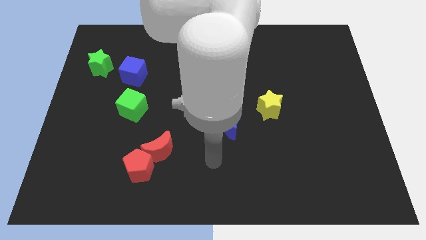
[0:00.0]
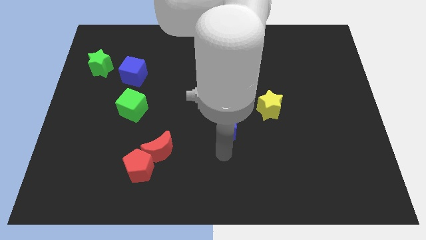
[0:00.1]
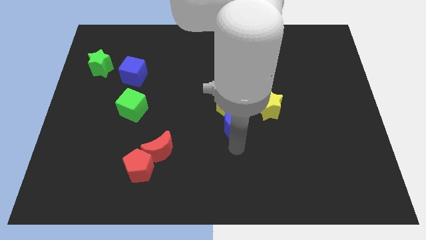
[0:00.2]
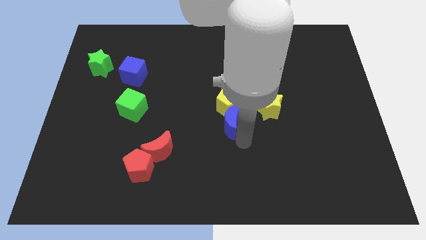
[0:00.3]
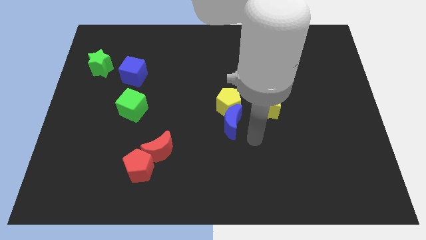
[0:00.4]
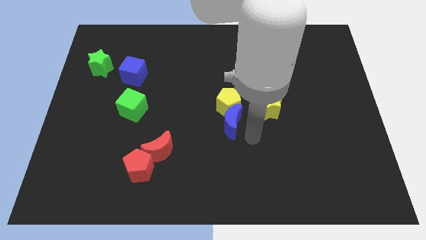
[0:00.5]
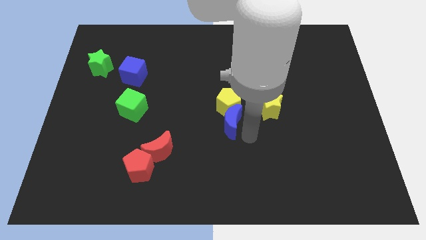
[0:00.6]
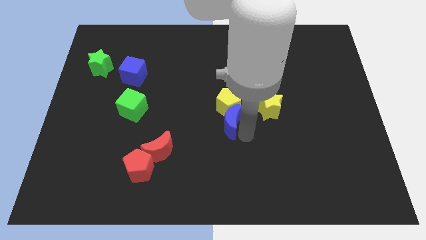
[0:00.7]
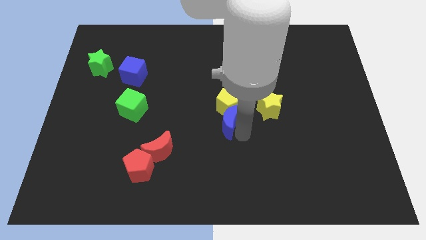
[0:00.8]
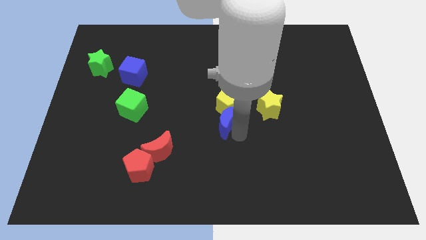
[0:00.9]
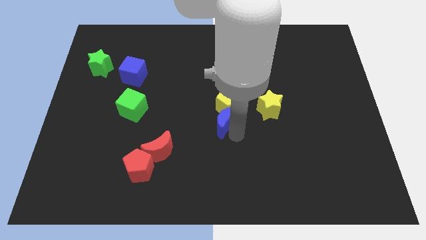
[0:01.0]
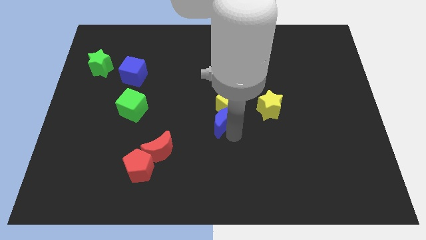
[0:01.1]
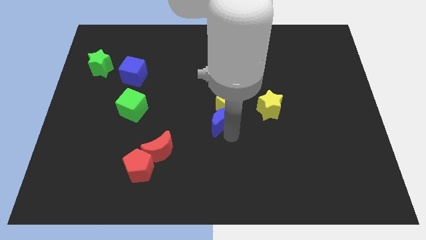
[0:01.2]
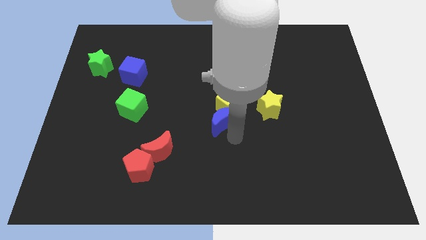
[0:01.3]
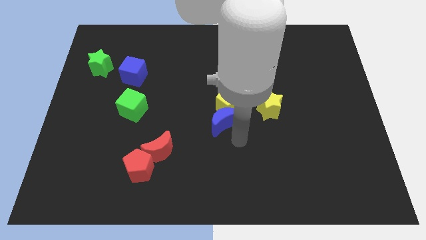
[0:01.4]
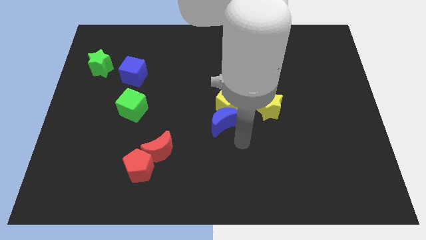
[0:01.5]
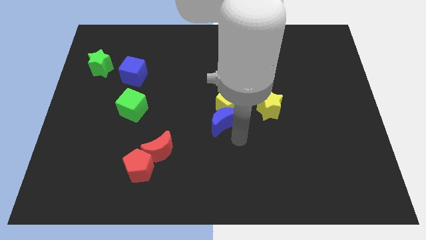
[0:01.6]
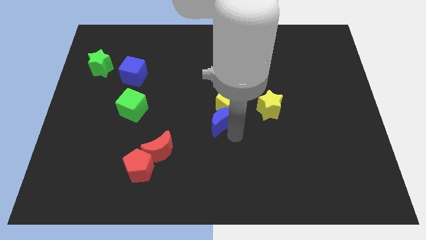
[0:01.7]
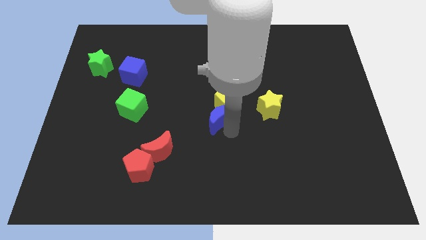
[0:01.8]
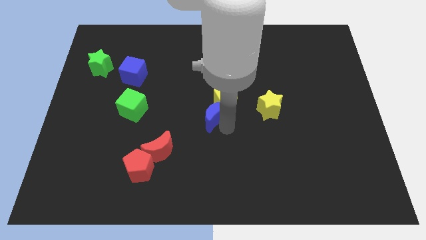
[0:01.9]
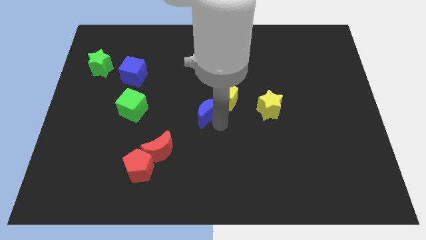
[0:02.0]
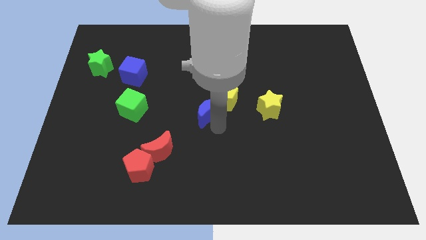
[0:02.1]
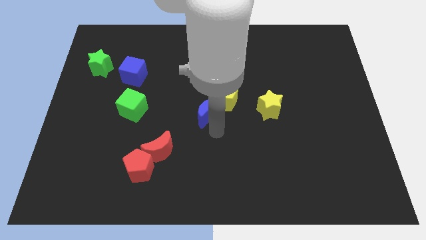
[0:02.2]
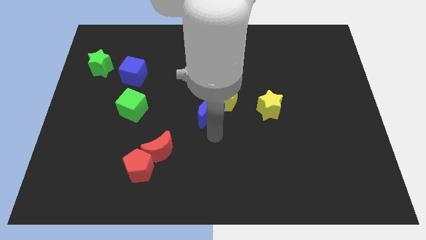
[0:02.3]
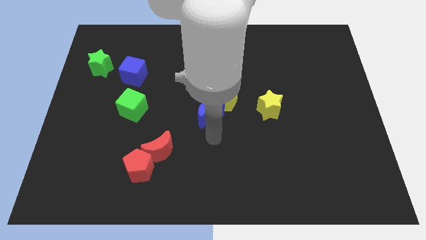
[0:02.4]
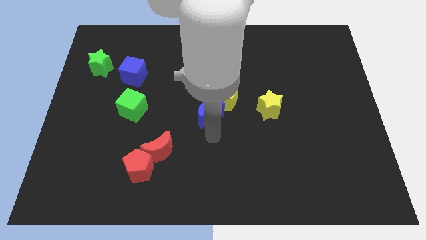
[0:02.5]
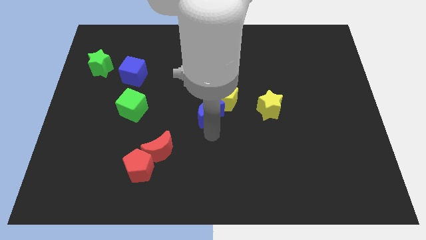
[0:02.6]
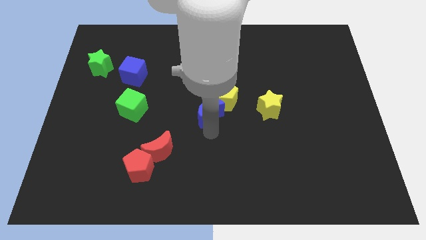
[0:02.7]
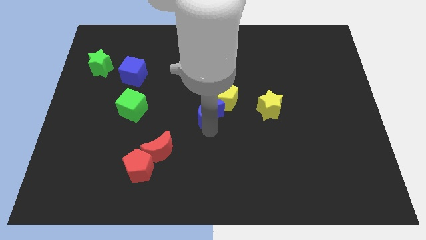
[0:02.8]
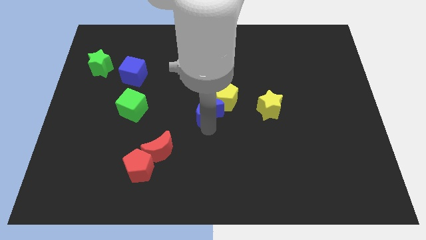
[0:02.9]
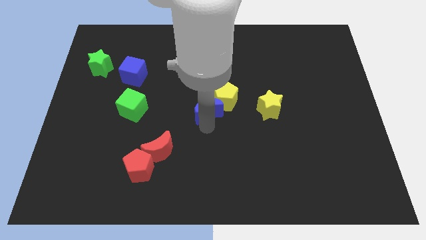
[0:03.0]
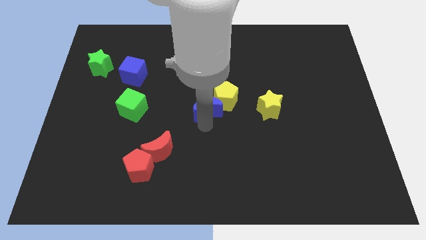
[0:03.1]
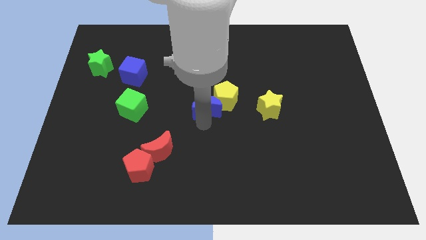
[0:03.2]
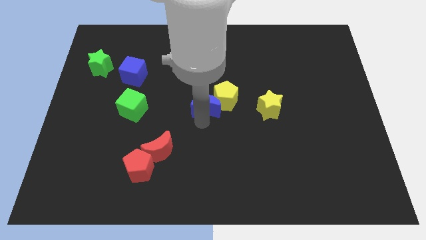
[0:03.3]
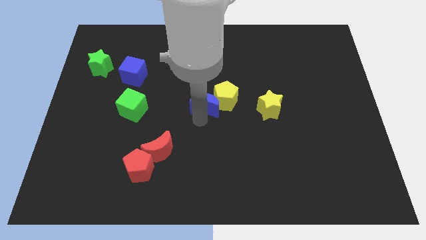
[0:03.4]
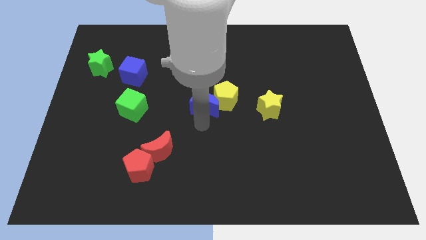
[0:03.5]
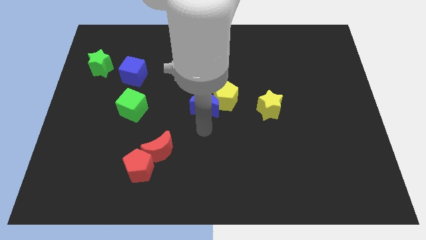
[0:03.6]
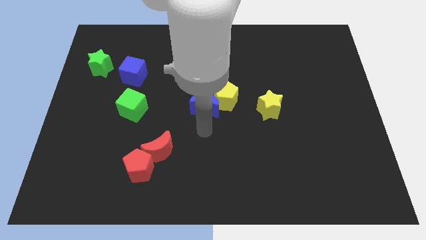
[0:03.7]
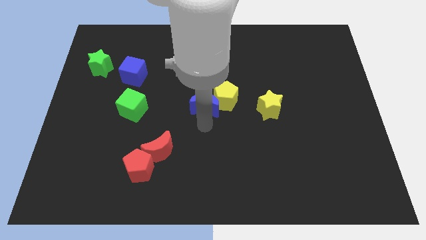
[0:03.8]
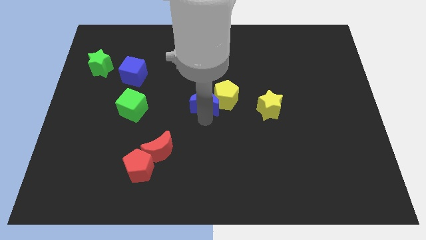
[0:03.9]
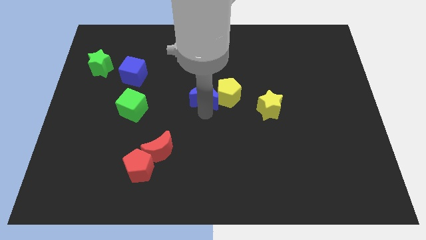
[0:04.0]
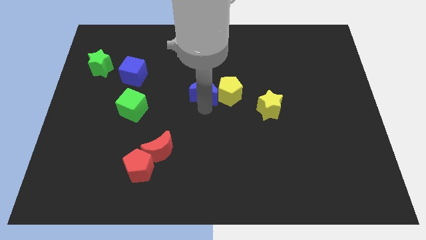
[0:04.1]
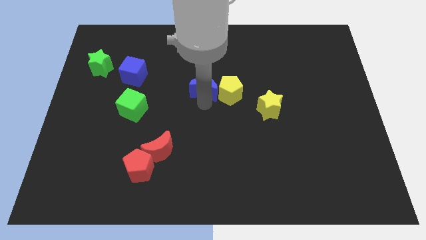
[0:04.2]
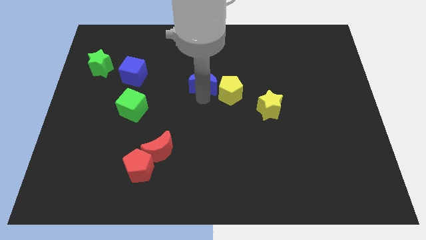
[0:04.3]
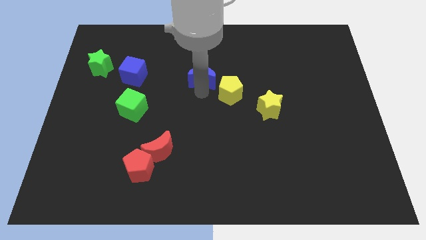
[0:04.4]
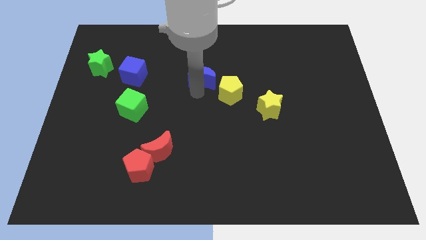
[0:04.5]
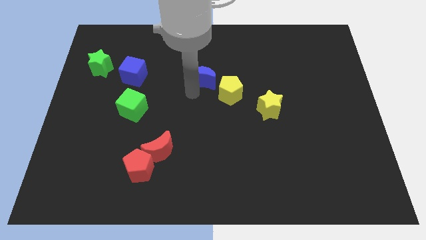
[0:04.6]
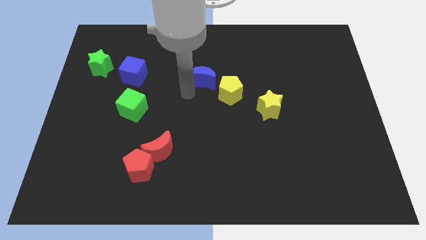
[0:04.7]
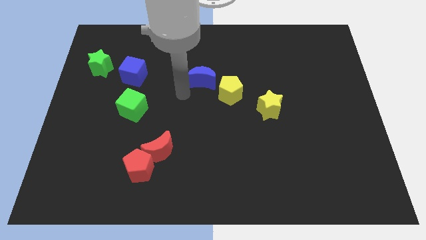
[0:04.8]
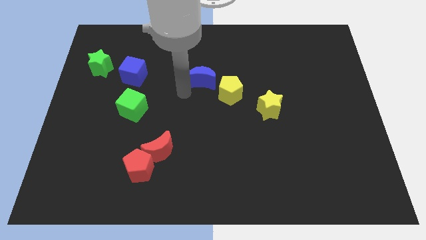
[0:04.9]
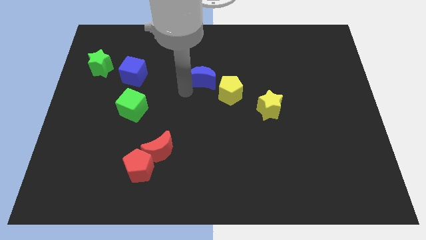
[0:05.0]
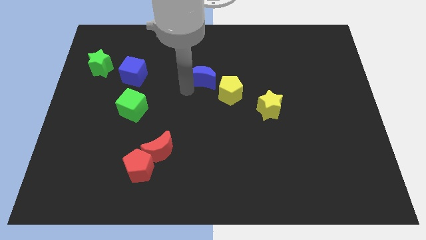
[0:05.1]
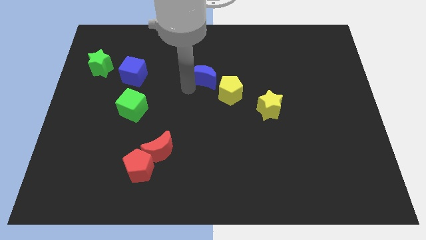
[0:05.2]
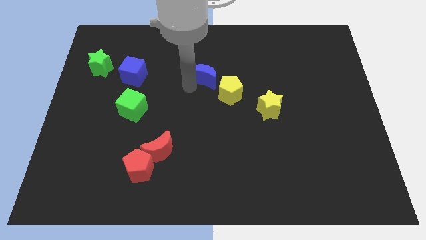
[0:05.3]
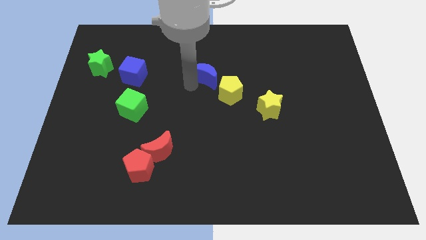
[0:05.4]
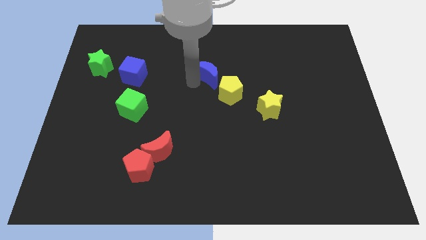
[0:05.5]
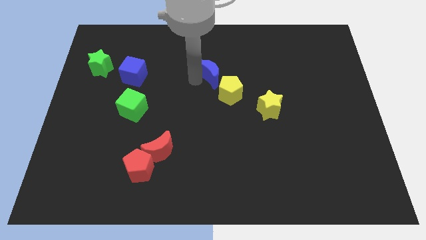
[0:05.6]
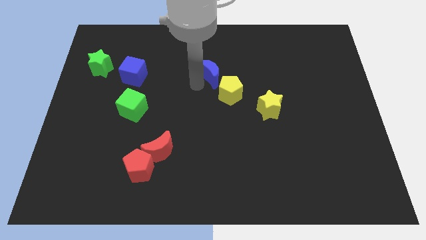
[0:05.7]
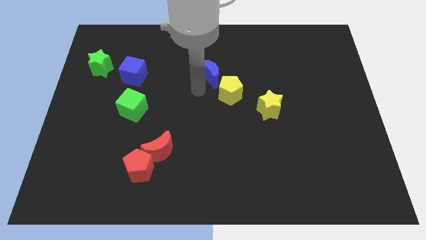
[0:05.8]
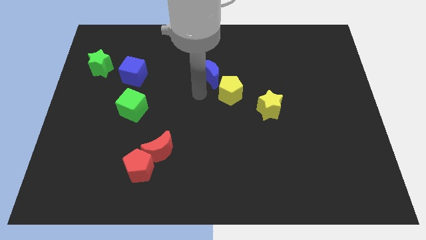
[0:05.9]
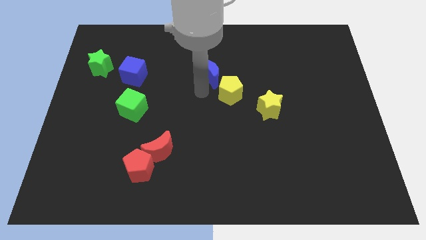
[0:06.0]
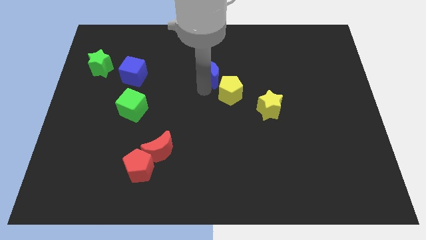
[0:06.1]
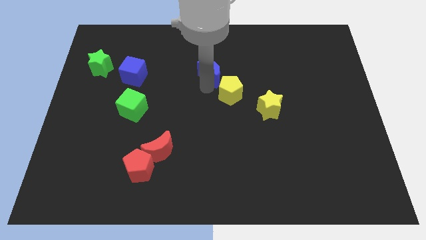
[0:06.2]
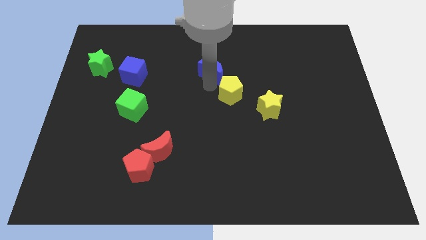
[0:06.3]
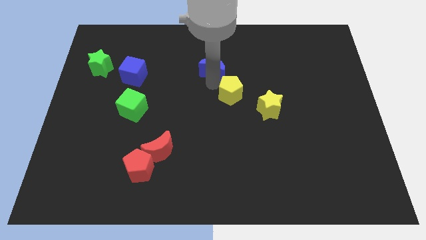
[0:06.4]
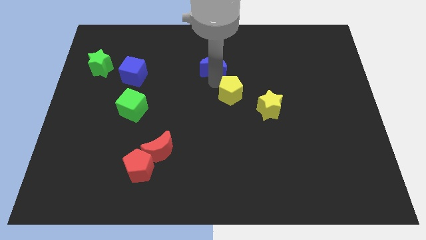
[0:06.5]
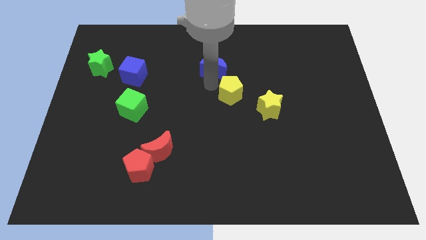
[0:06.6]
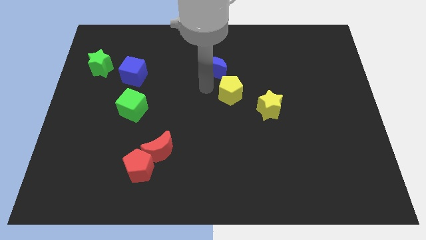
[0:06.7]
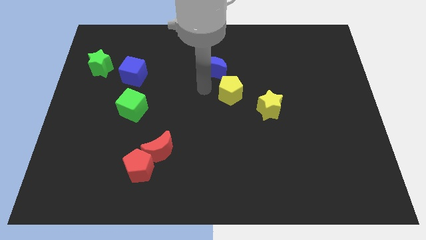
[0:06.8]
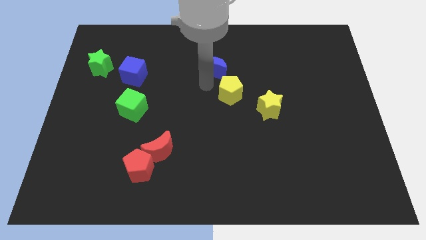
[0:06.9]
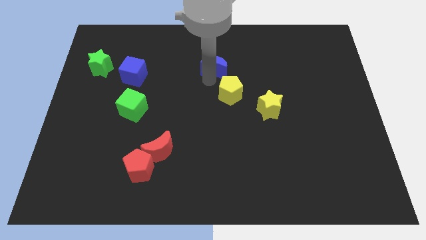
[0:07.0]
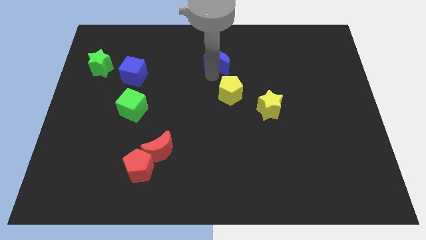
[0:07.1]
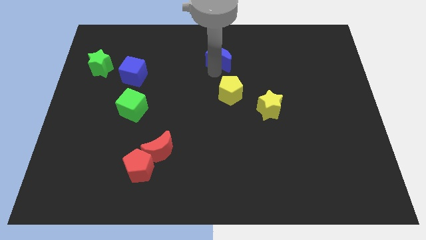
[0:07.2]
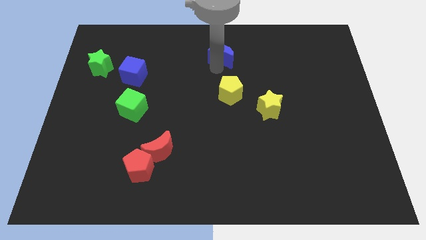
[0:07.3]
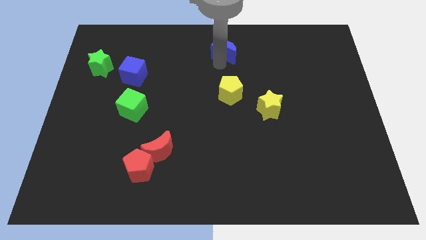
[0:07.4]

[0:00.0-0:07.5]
move the blue moon to the top
